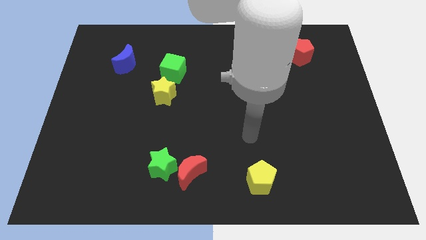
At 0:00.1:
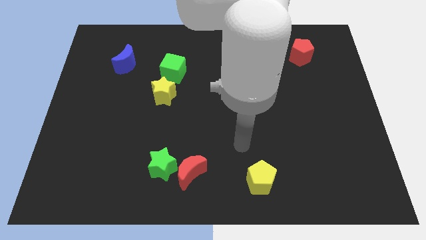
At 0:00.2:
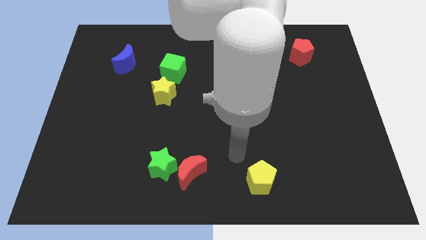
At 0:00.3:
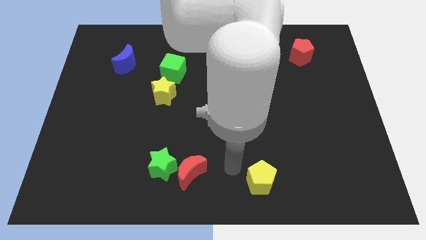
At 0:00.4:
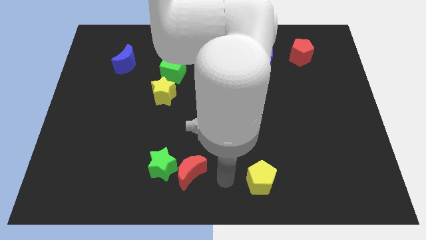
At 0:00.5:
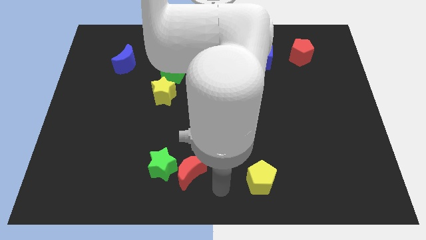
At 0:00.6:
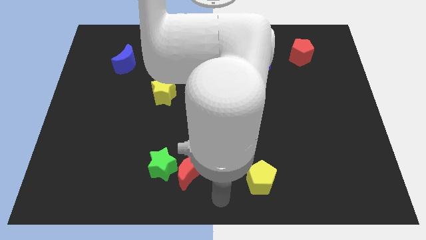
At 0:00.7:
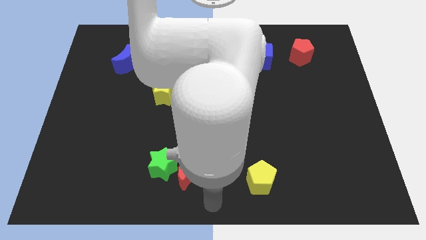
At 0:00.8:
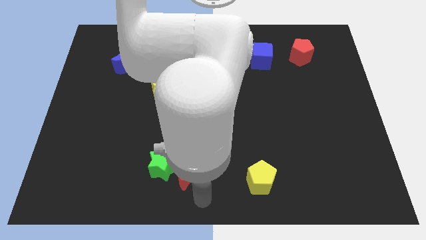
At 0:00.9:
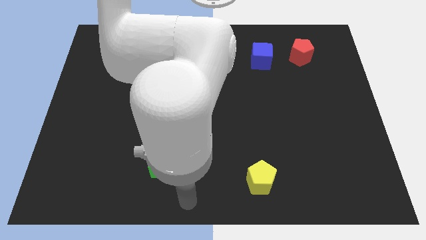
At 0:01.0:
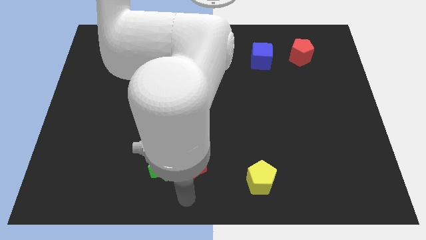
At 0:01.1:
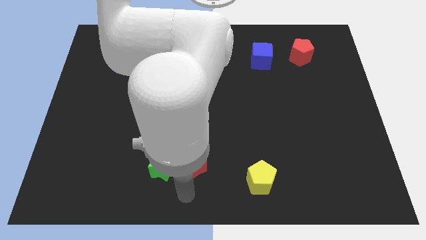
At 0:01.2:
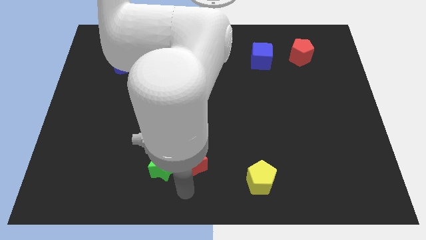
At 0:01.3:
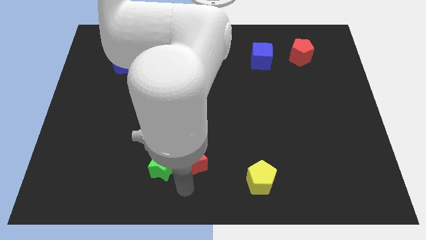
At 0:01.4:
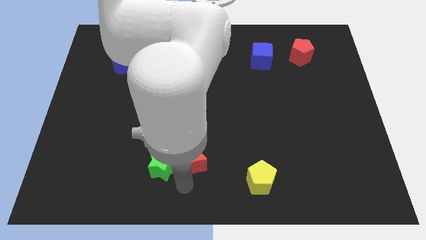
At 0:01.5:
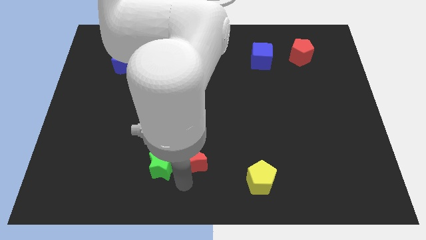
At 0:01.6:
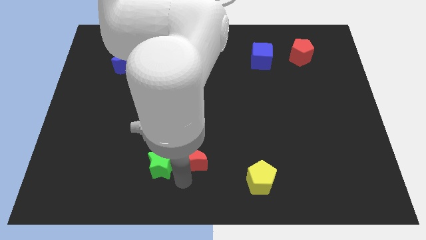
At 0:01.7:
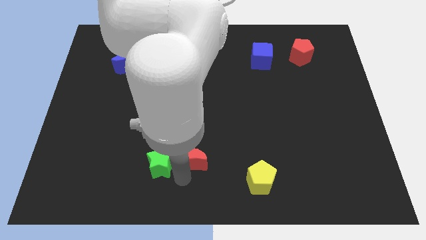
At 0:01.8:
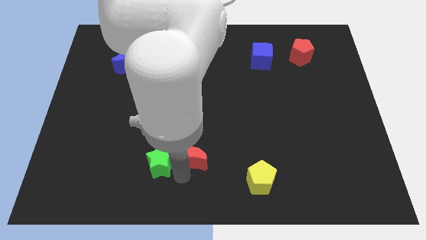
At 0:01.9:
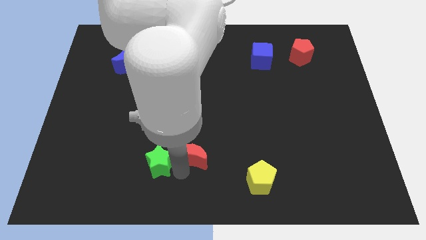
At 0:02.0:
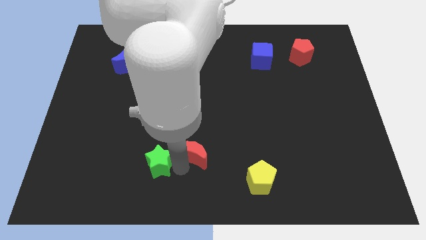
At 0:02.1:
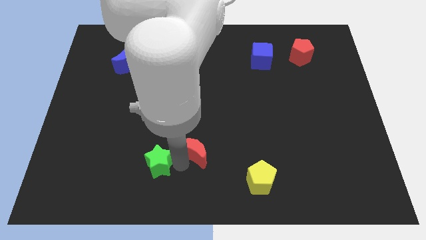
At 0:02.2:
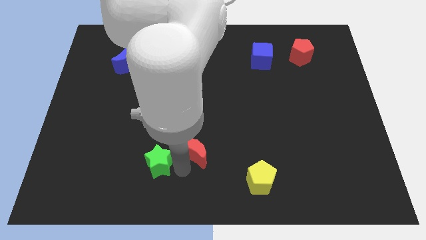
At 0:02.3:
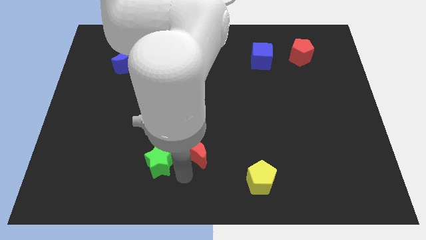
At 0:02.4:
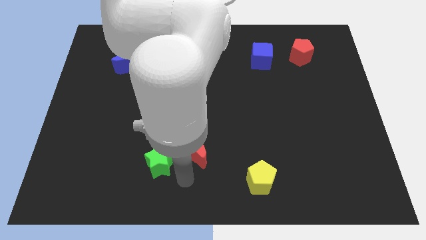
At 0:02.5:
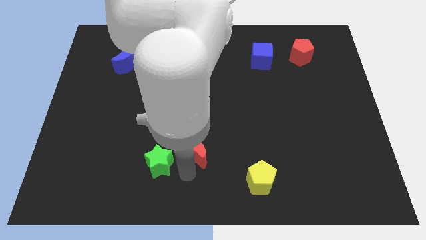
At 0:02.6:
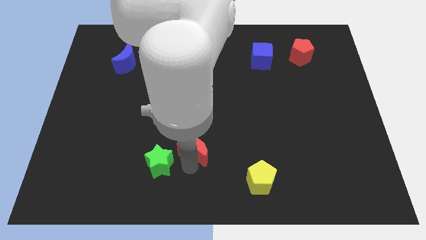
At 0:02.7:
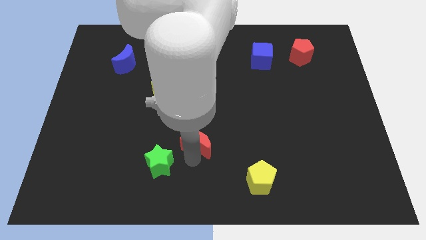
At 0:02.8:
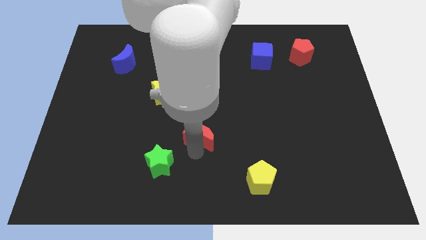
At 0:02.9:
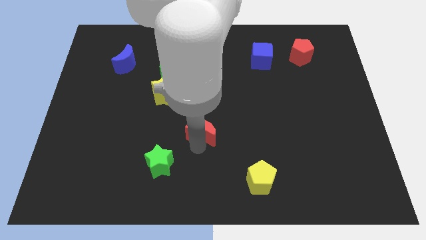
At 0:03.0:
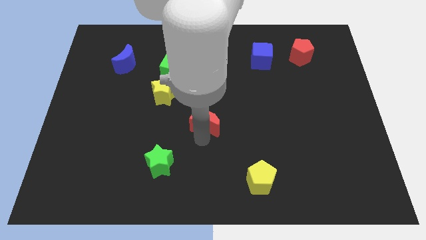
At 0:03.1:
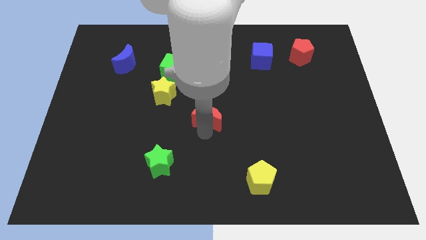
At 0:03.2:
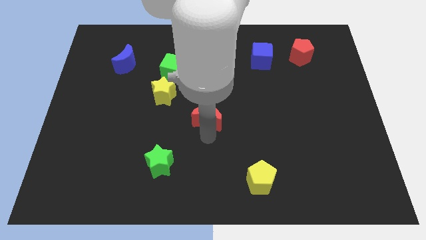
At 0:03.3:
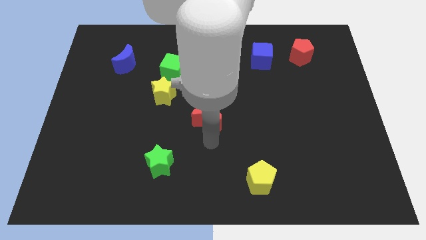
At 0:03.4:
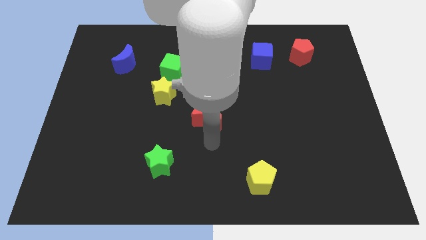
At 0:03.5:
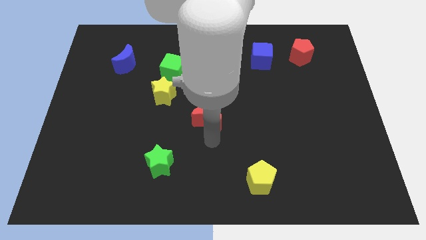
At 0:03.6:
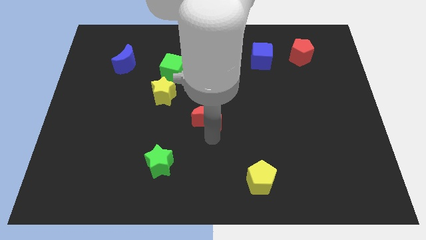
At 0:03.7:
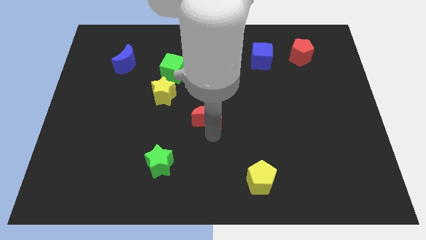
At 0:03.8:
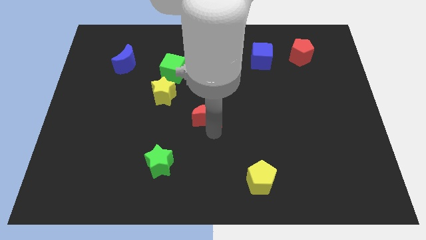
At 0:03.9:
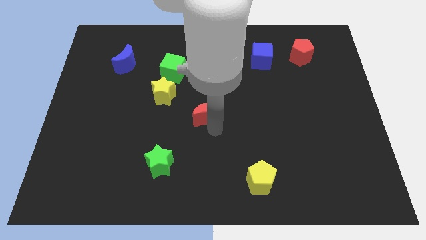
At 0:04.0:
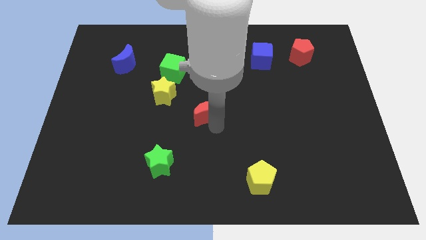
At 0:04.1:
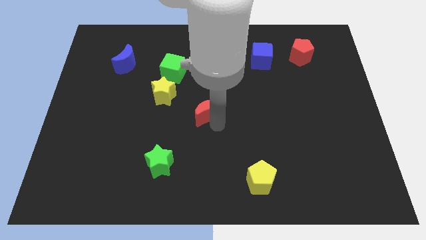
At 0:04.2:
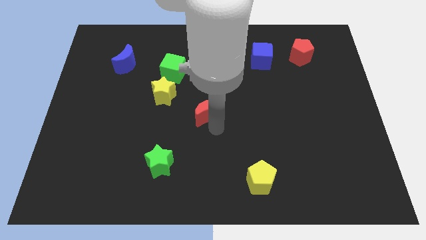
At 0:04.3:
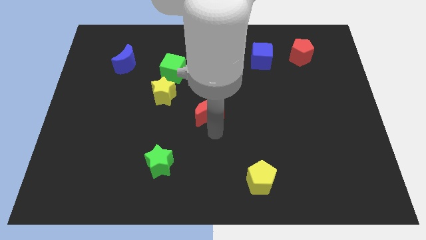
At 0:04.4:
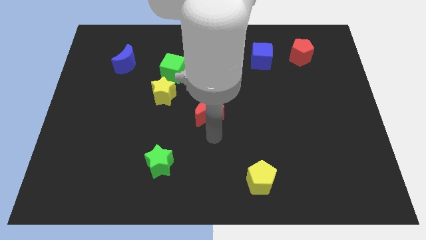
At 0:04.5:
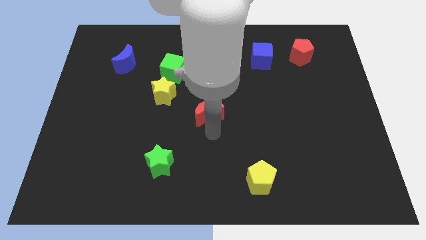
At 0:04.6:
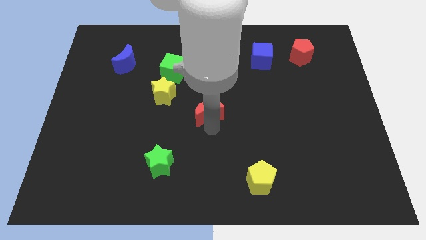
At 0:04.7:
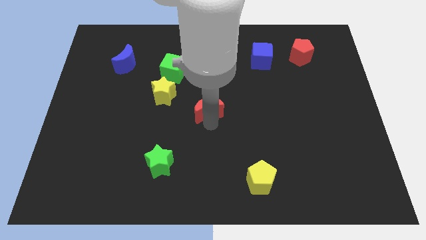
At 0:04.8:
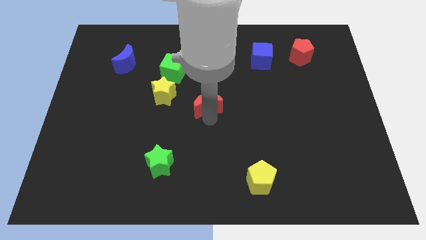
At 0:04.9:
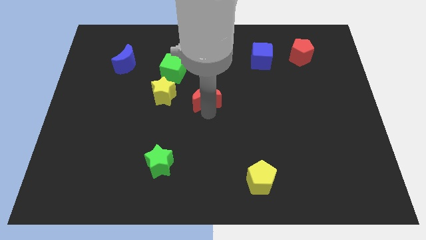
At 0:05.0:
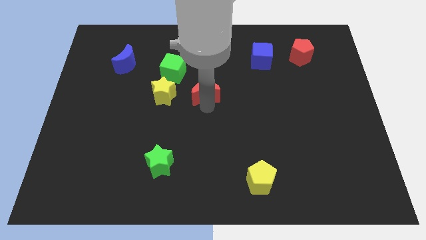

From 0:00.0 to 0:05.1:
slide the red moon upwards

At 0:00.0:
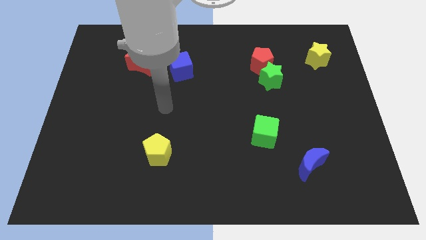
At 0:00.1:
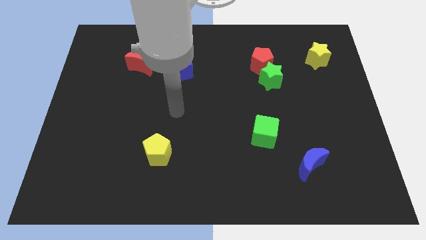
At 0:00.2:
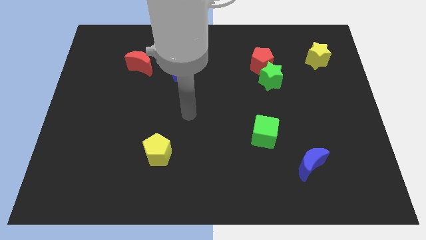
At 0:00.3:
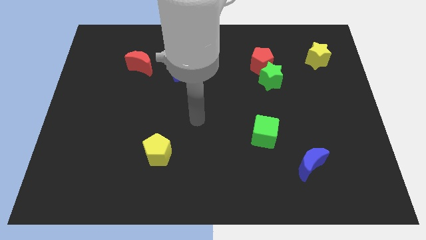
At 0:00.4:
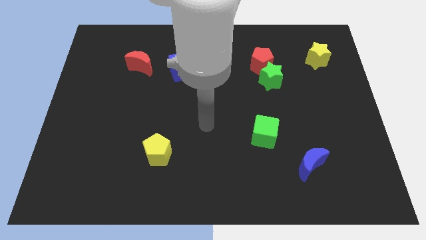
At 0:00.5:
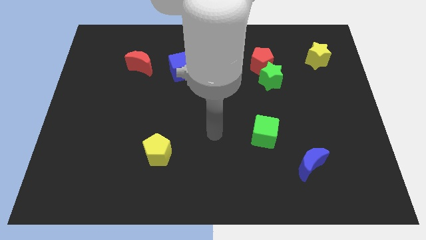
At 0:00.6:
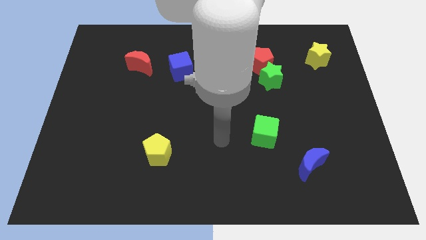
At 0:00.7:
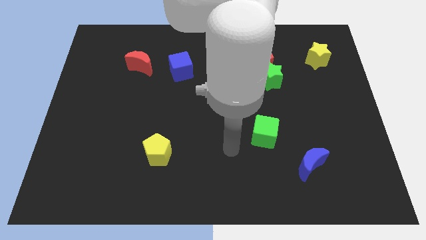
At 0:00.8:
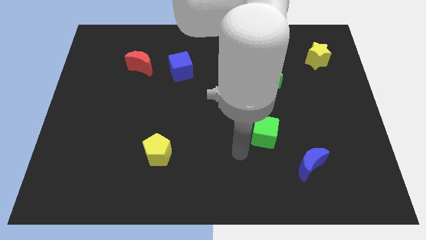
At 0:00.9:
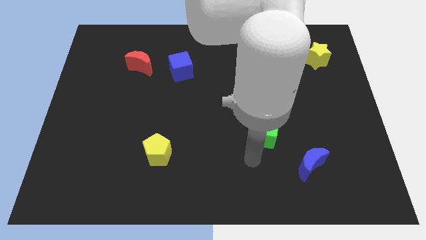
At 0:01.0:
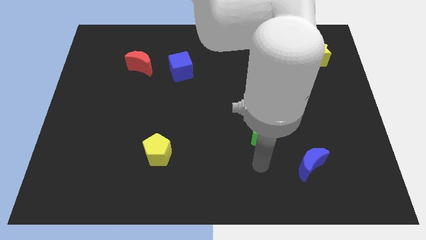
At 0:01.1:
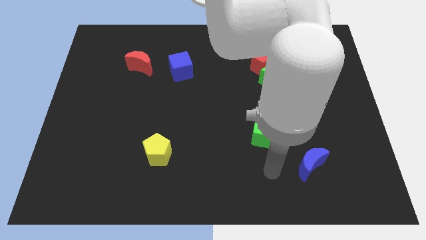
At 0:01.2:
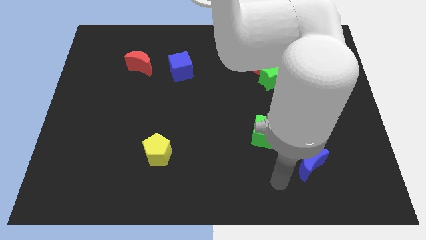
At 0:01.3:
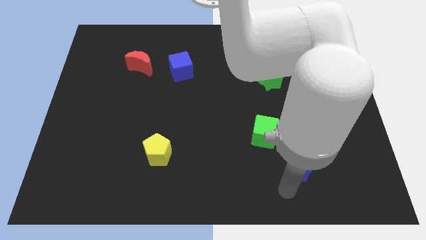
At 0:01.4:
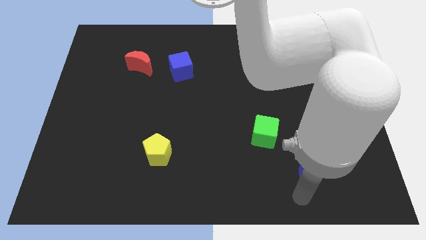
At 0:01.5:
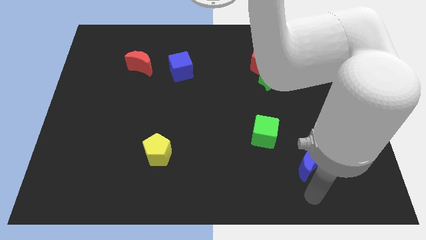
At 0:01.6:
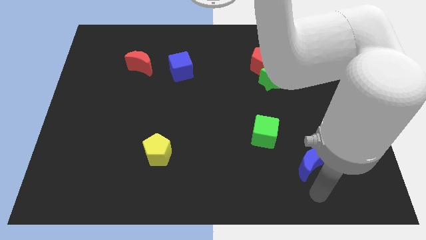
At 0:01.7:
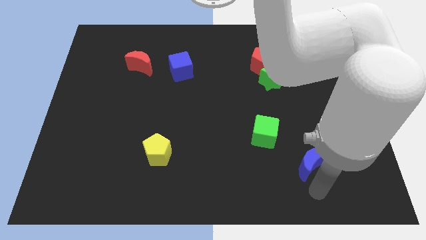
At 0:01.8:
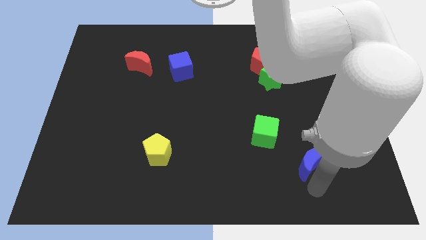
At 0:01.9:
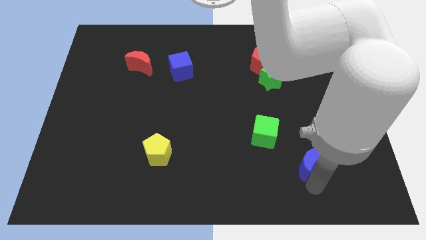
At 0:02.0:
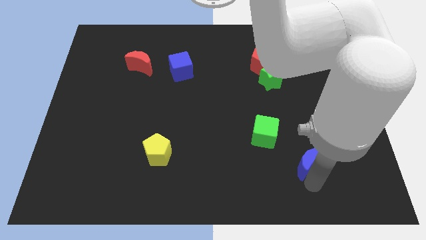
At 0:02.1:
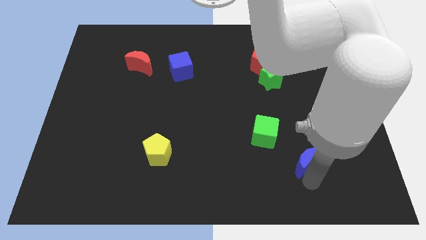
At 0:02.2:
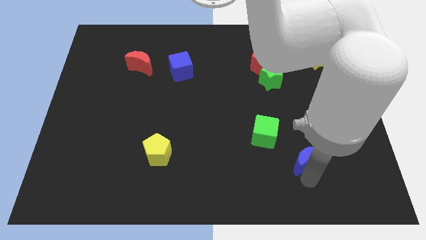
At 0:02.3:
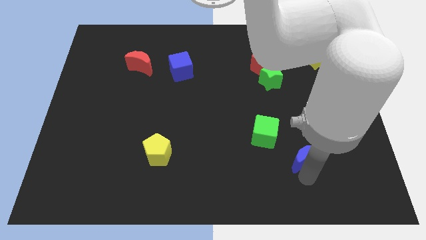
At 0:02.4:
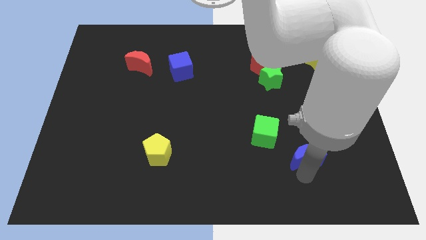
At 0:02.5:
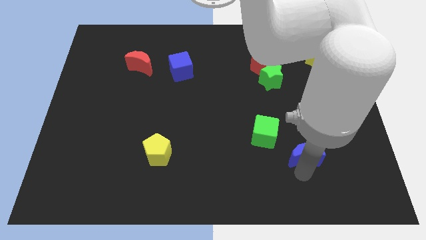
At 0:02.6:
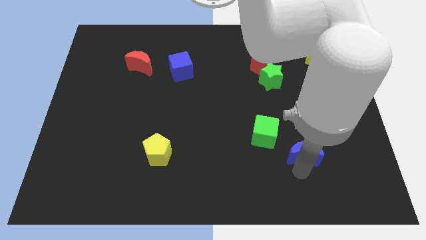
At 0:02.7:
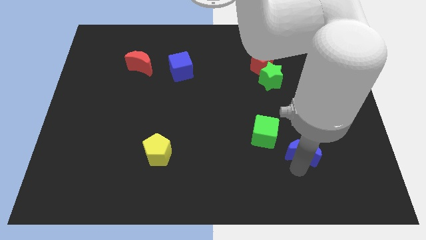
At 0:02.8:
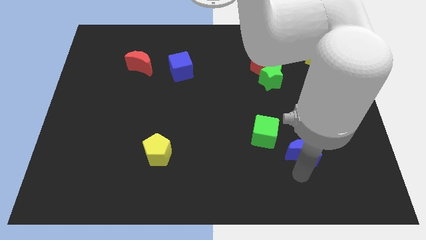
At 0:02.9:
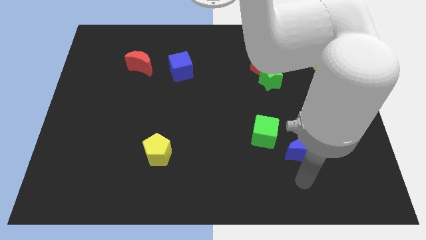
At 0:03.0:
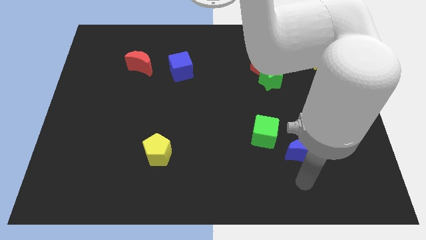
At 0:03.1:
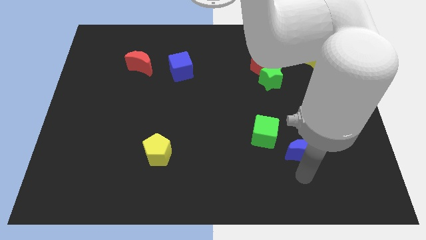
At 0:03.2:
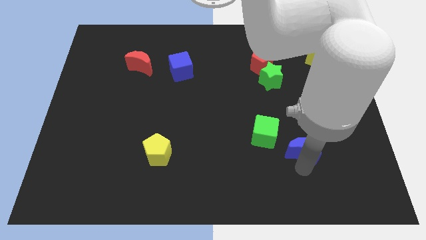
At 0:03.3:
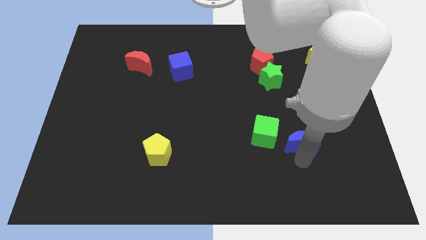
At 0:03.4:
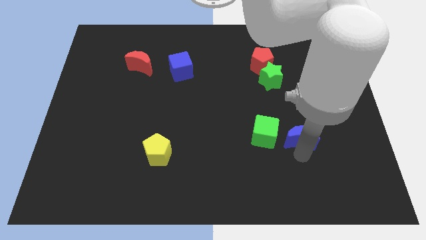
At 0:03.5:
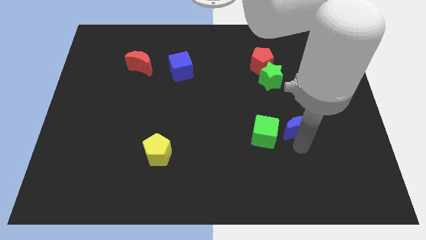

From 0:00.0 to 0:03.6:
move the blue moon upwards a little bit
